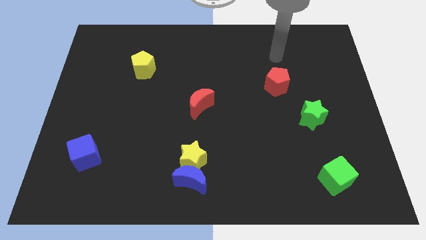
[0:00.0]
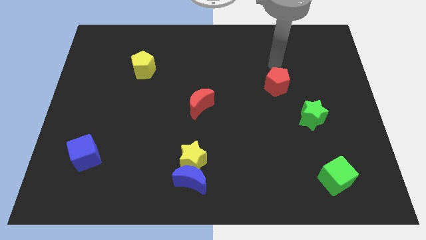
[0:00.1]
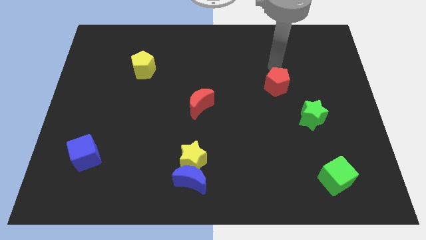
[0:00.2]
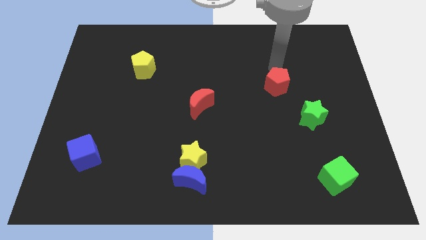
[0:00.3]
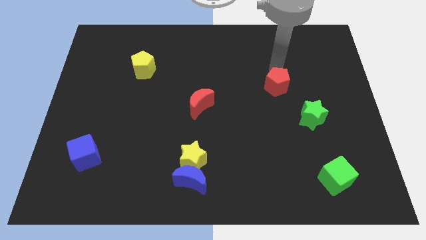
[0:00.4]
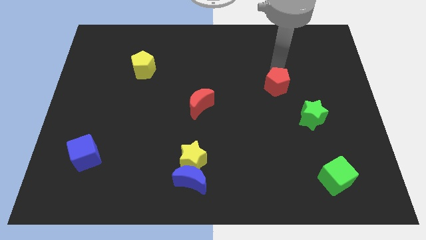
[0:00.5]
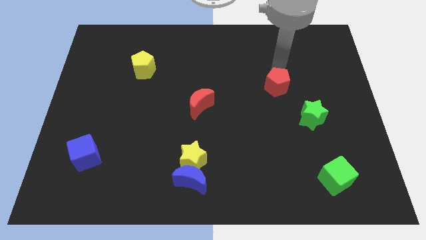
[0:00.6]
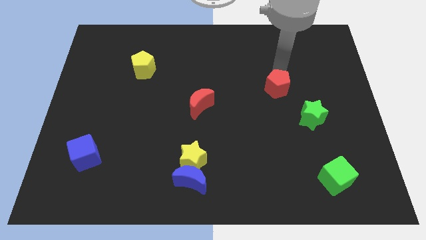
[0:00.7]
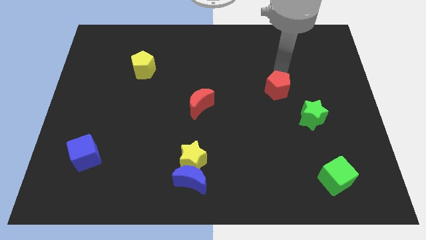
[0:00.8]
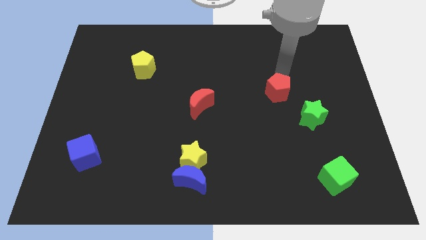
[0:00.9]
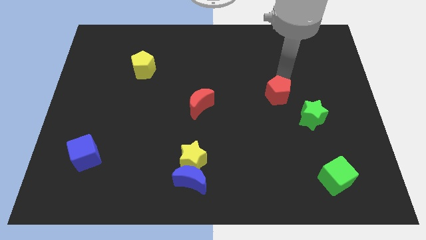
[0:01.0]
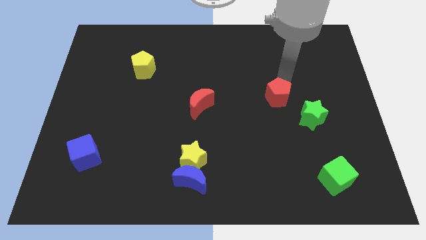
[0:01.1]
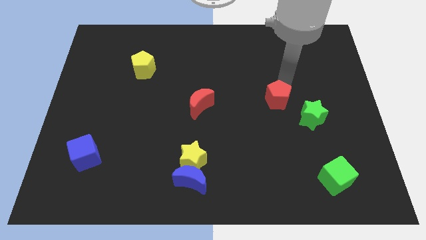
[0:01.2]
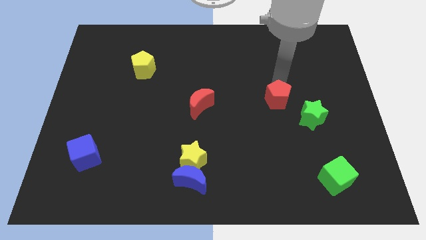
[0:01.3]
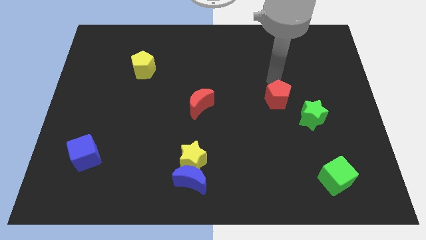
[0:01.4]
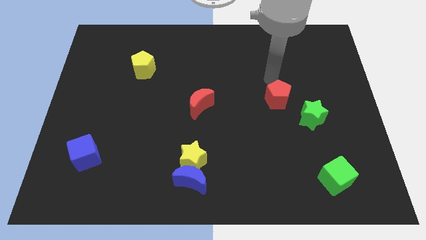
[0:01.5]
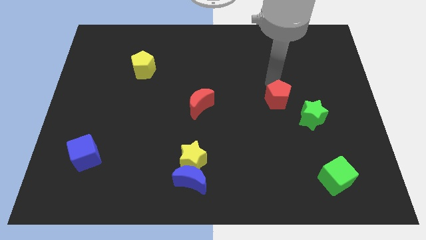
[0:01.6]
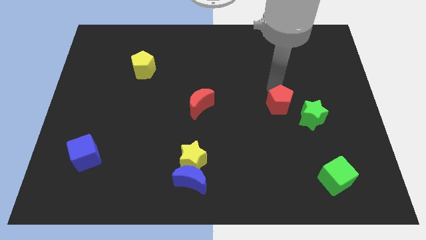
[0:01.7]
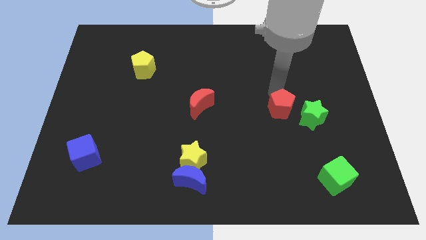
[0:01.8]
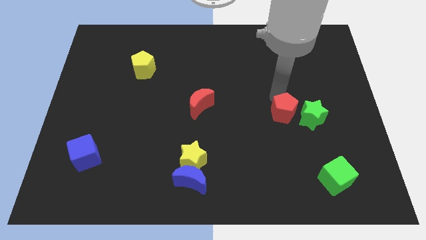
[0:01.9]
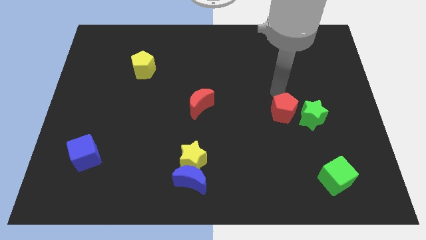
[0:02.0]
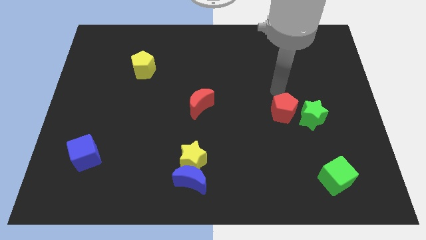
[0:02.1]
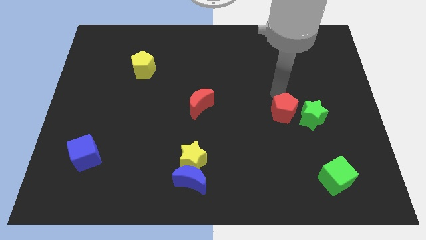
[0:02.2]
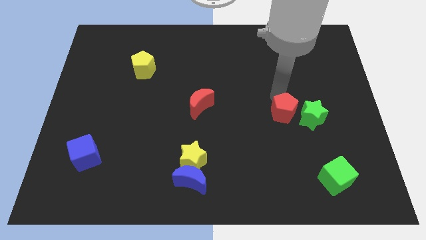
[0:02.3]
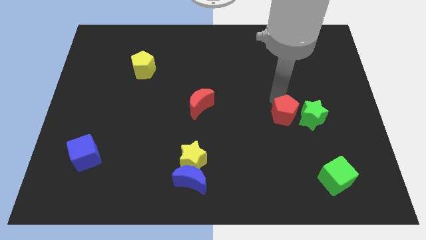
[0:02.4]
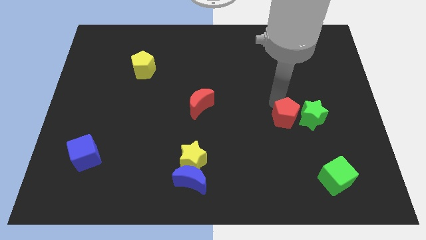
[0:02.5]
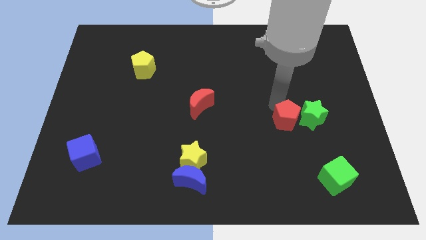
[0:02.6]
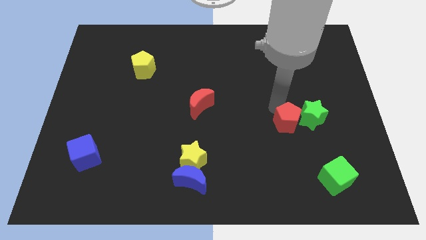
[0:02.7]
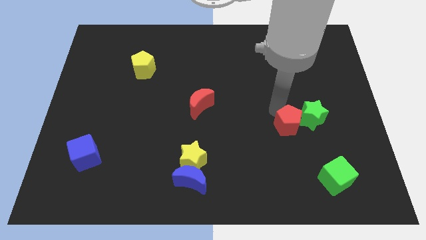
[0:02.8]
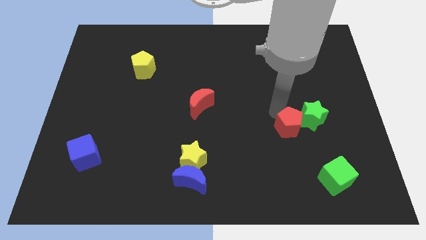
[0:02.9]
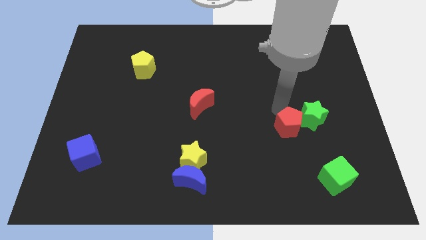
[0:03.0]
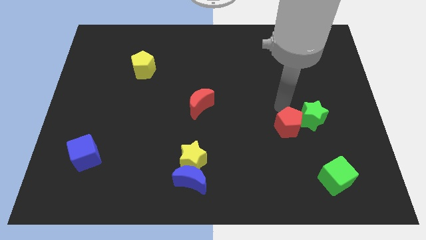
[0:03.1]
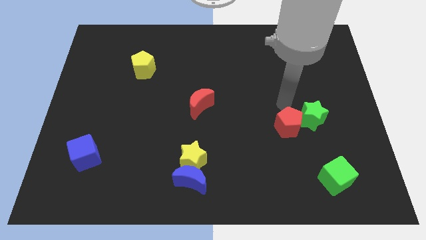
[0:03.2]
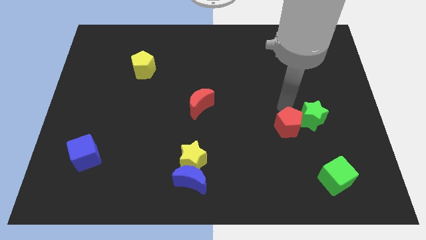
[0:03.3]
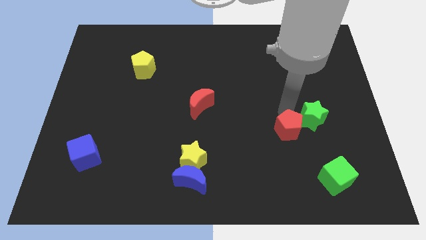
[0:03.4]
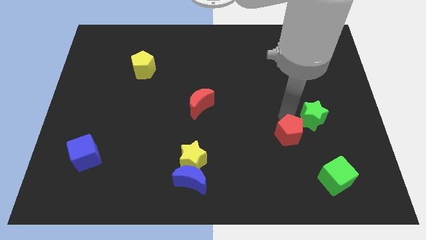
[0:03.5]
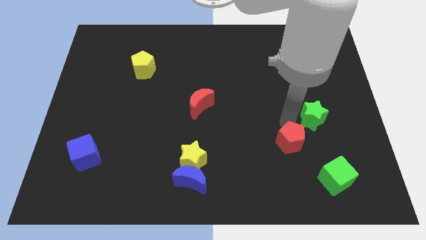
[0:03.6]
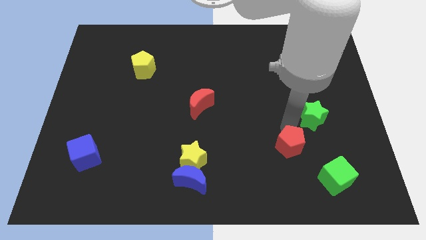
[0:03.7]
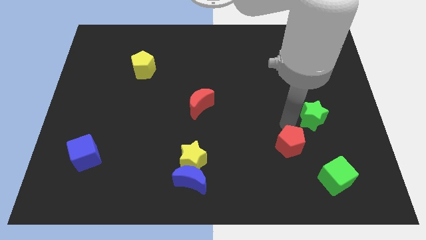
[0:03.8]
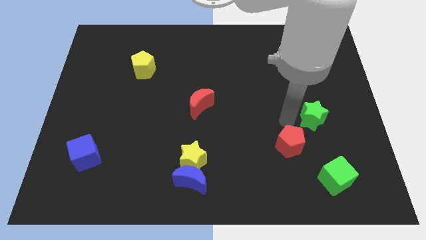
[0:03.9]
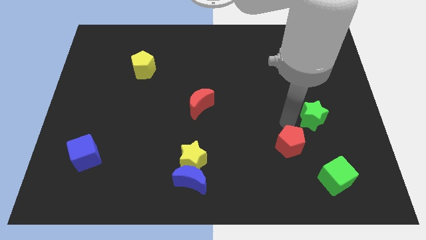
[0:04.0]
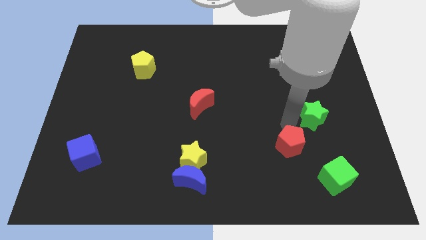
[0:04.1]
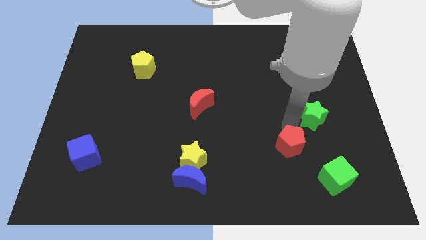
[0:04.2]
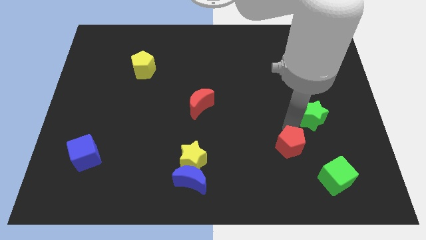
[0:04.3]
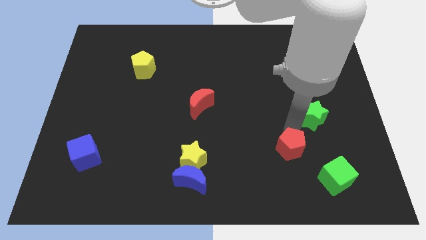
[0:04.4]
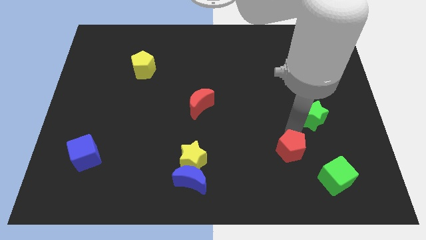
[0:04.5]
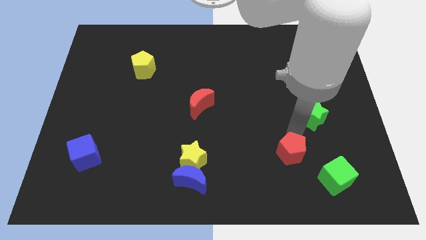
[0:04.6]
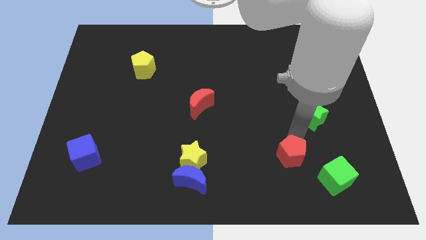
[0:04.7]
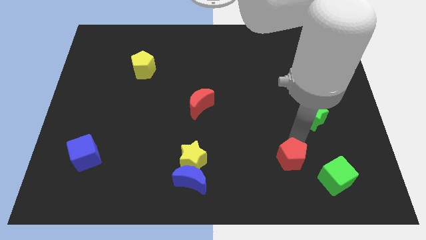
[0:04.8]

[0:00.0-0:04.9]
put the red pentagon just left of the green cube

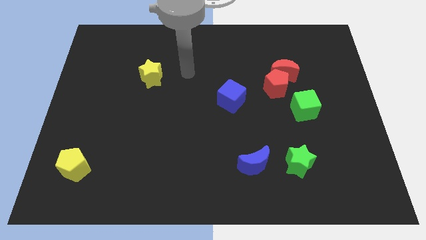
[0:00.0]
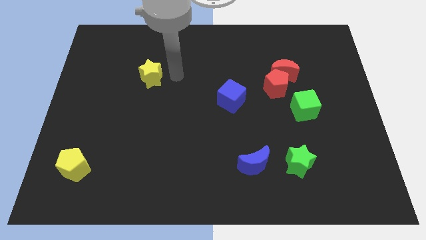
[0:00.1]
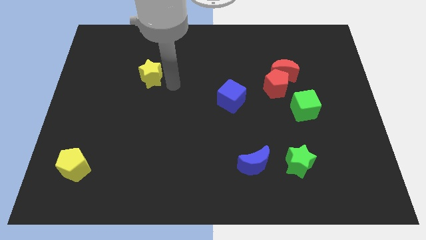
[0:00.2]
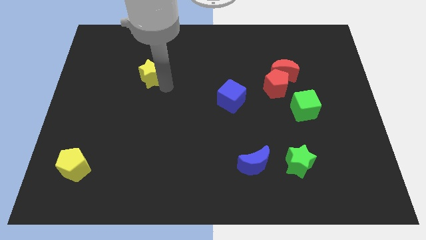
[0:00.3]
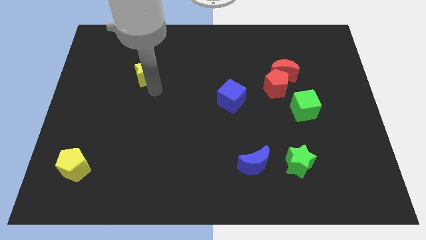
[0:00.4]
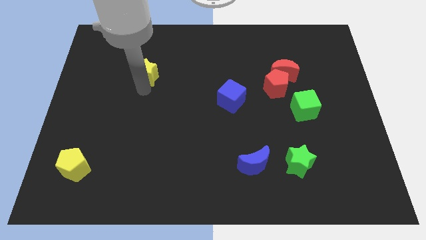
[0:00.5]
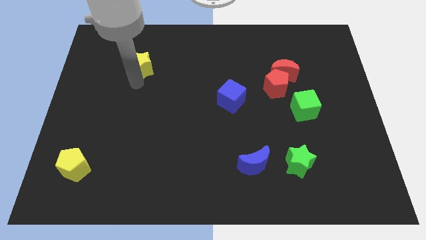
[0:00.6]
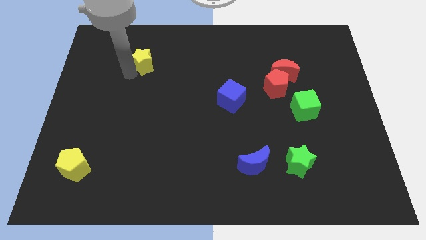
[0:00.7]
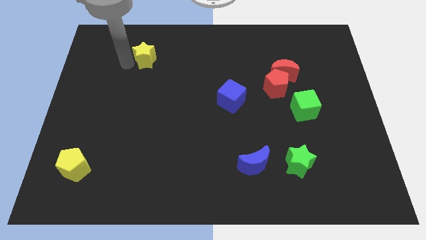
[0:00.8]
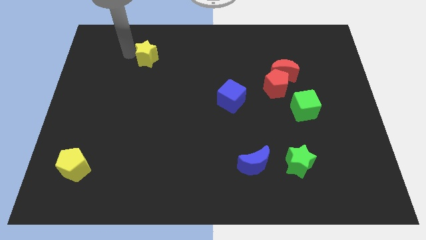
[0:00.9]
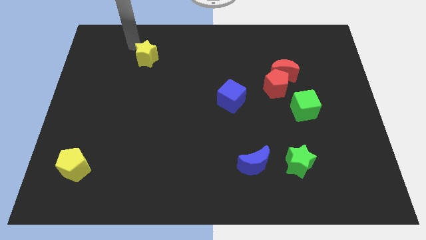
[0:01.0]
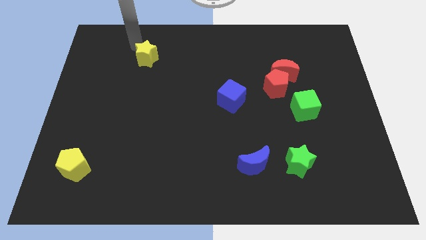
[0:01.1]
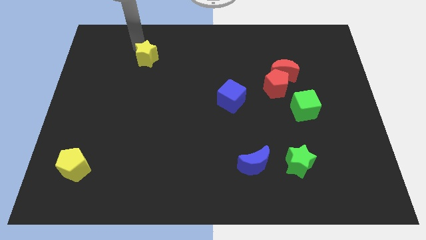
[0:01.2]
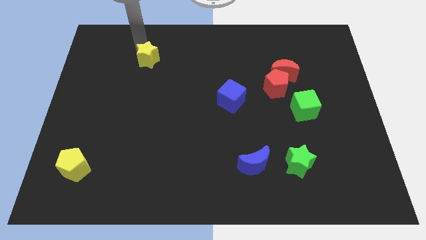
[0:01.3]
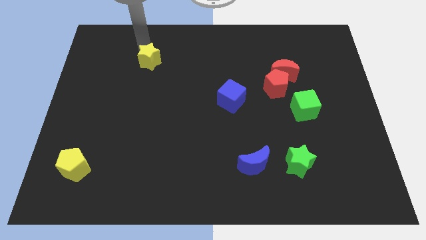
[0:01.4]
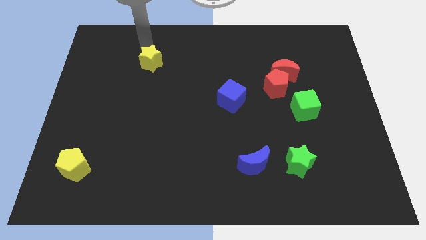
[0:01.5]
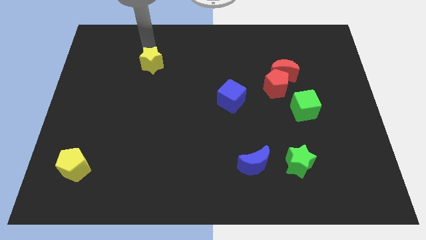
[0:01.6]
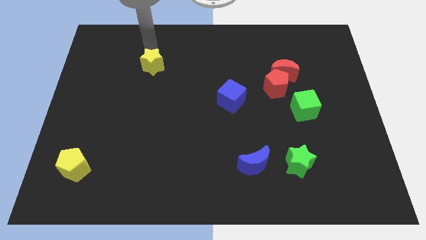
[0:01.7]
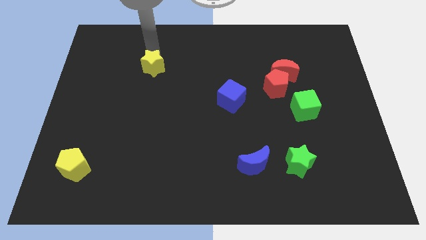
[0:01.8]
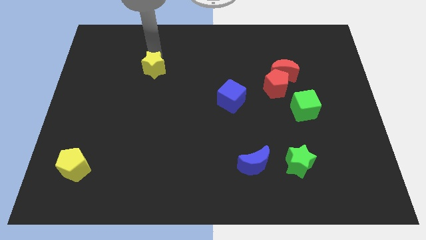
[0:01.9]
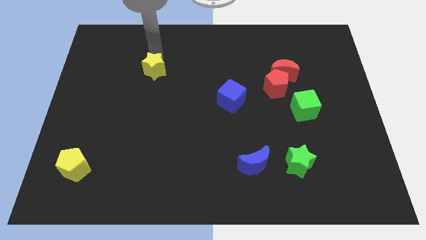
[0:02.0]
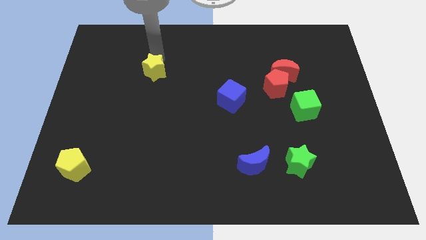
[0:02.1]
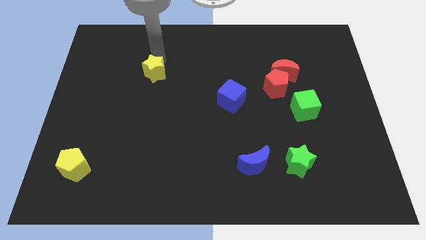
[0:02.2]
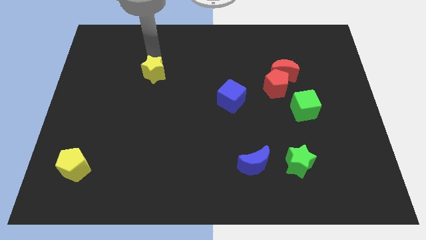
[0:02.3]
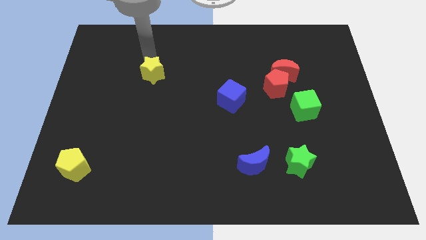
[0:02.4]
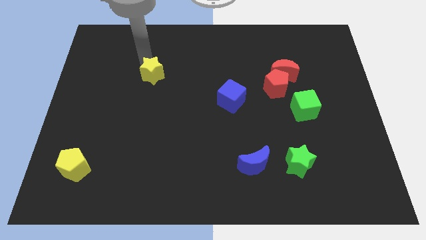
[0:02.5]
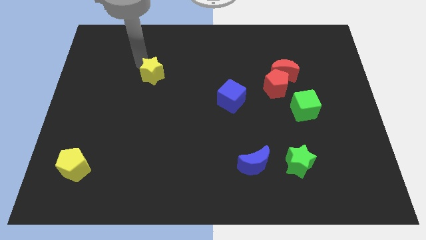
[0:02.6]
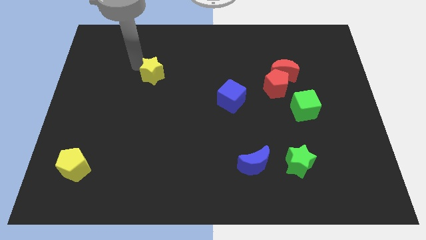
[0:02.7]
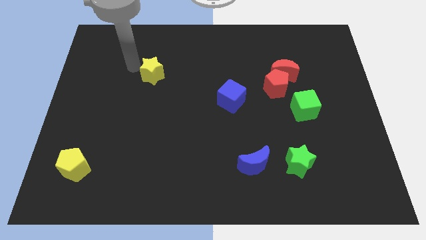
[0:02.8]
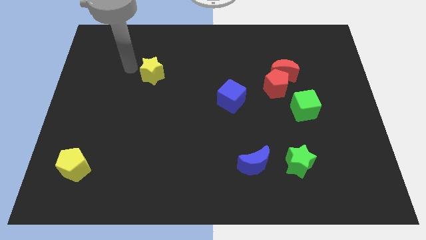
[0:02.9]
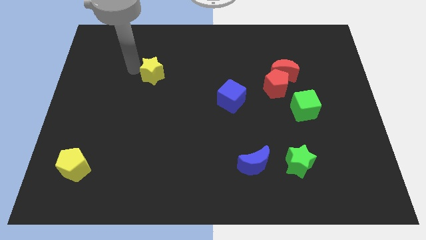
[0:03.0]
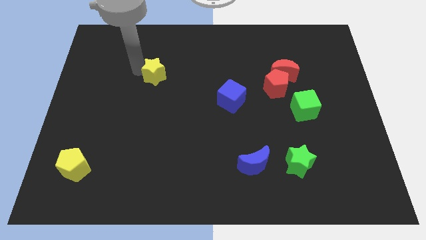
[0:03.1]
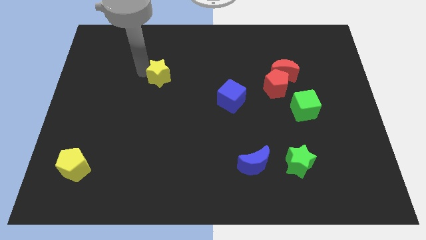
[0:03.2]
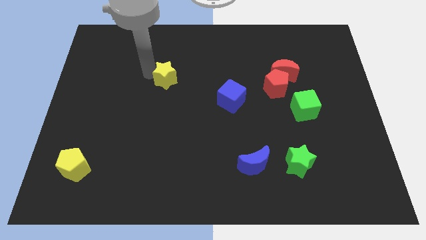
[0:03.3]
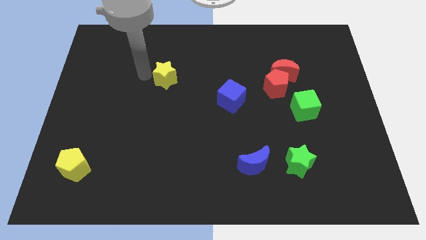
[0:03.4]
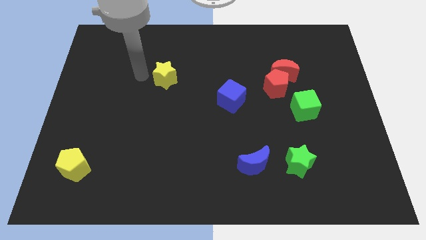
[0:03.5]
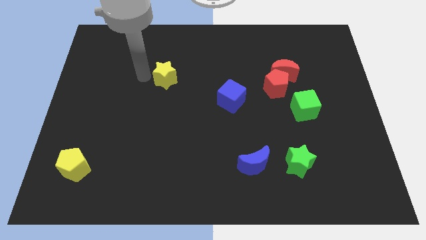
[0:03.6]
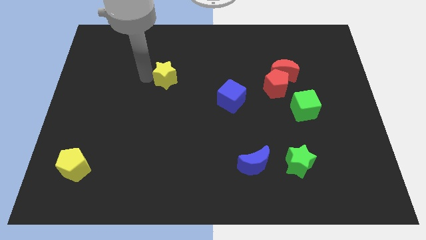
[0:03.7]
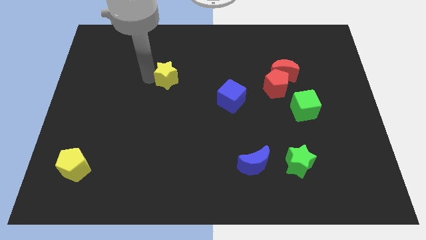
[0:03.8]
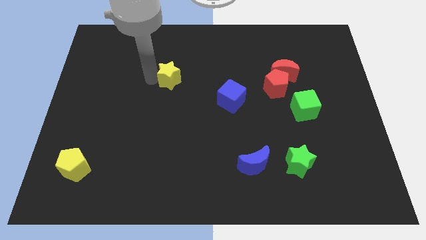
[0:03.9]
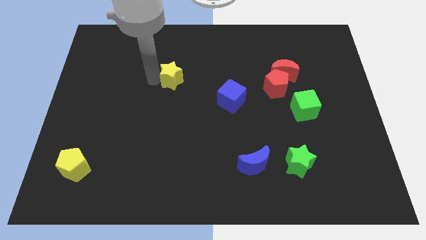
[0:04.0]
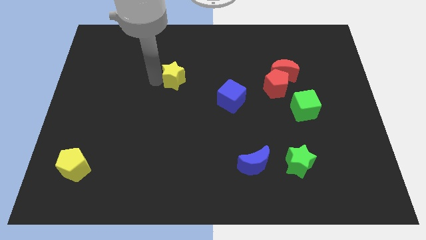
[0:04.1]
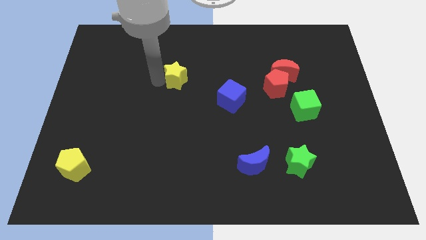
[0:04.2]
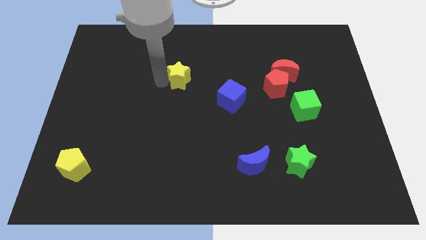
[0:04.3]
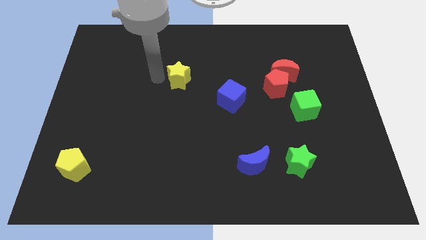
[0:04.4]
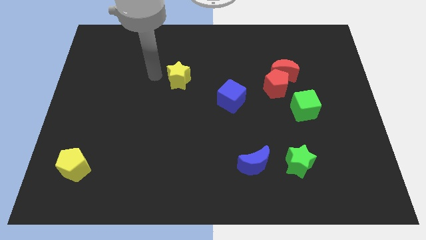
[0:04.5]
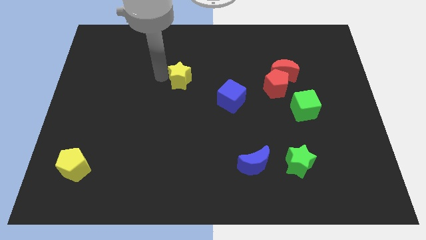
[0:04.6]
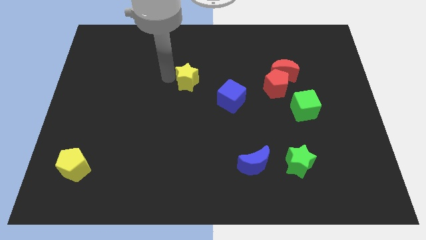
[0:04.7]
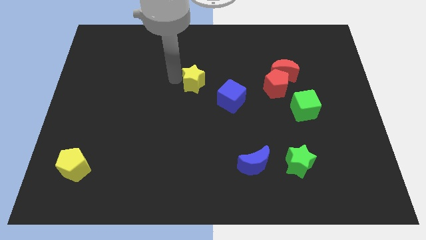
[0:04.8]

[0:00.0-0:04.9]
move the yellow star to the top left side of the blue cube
